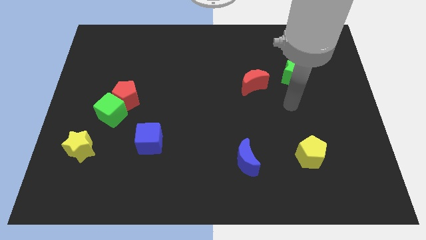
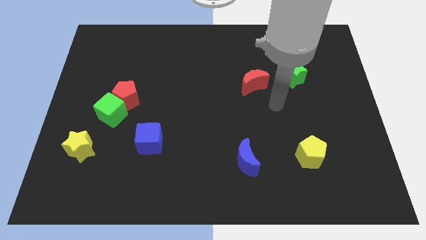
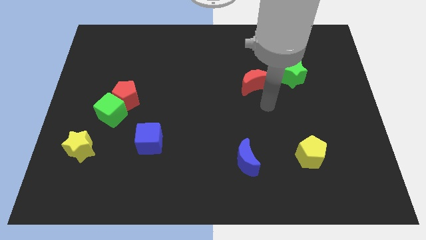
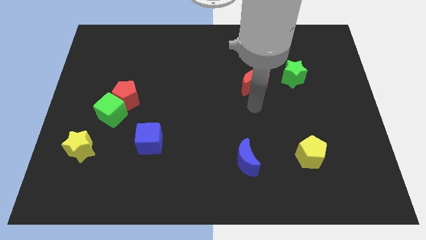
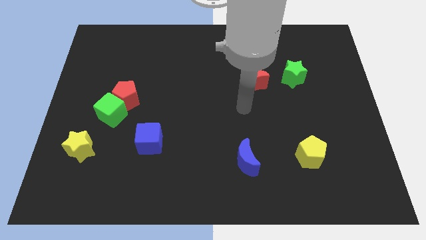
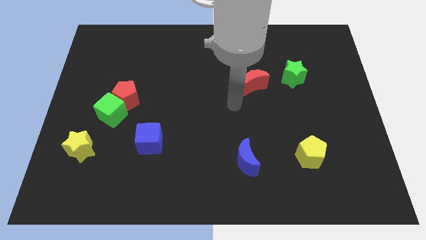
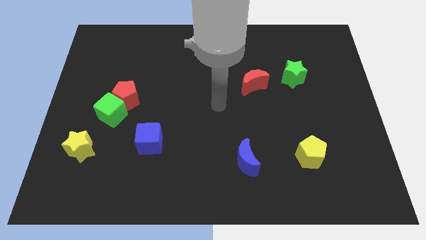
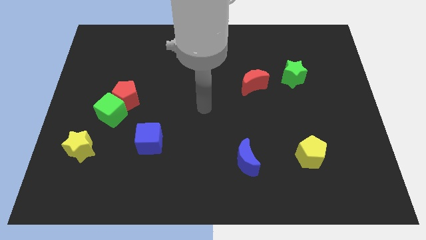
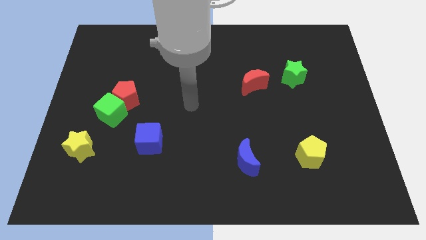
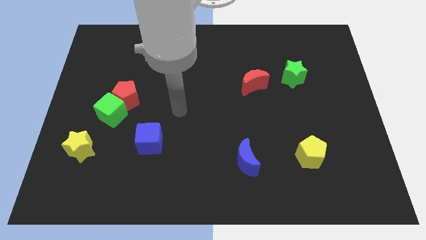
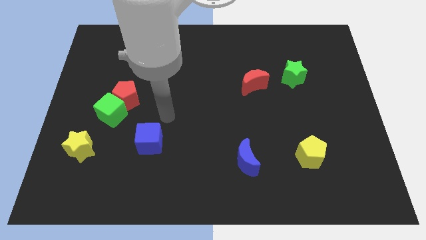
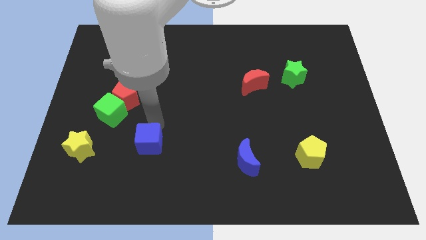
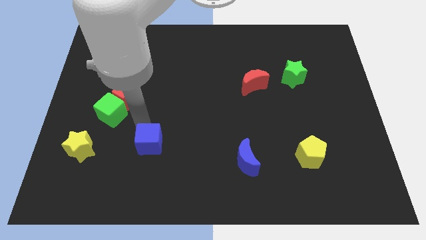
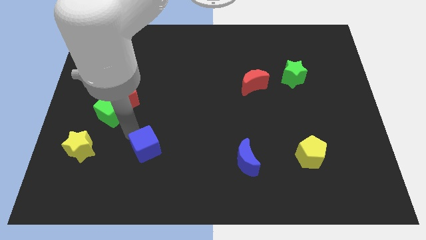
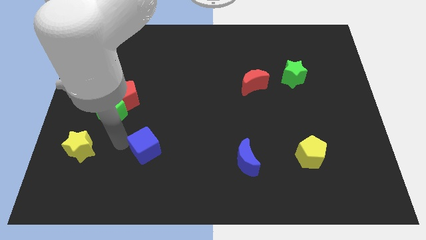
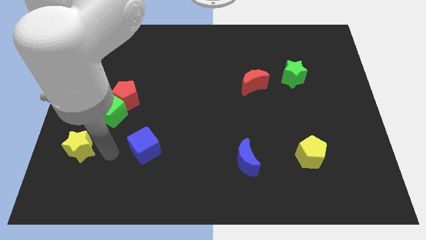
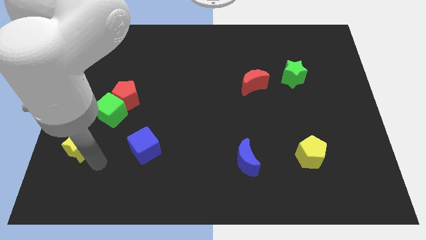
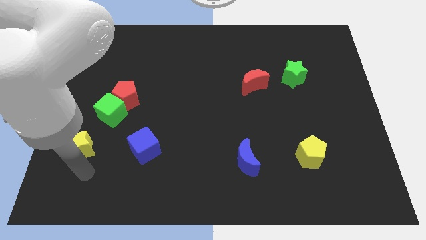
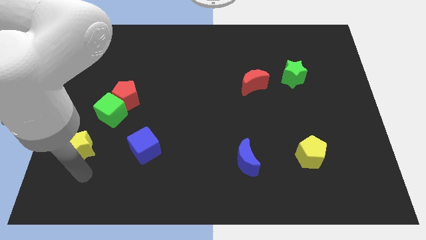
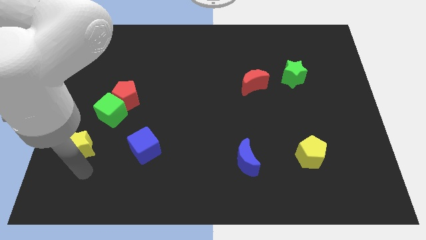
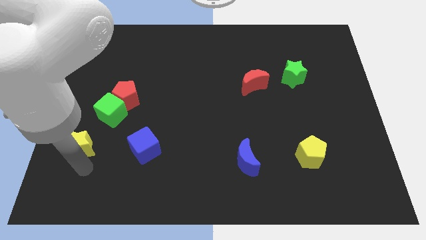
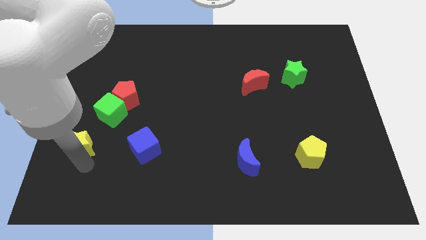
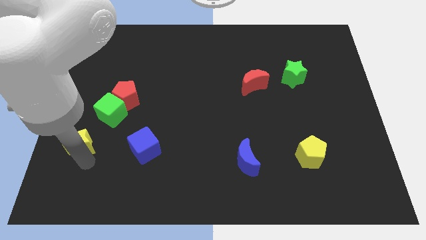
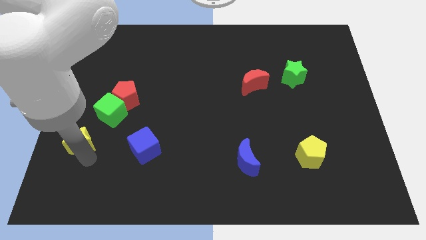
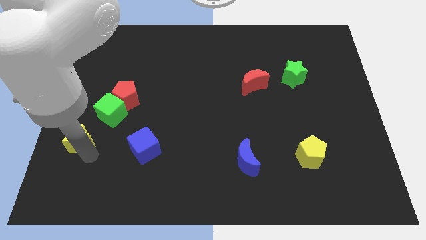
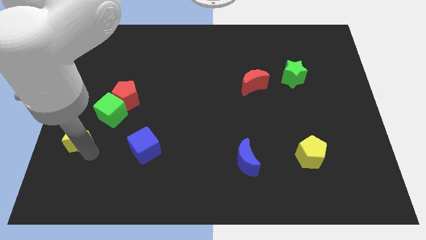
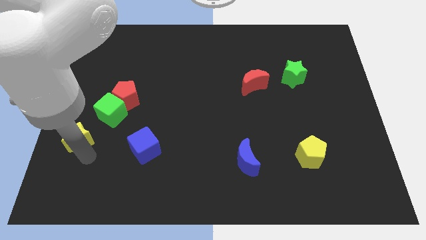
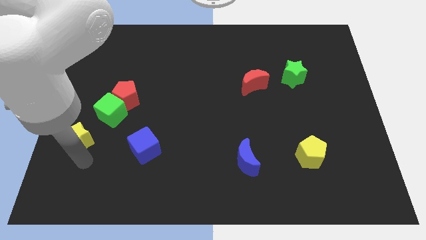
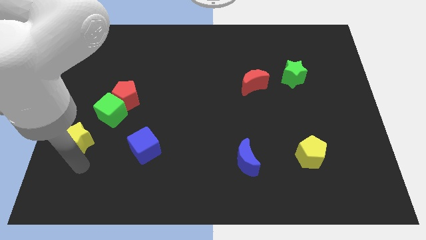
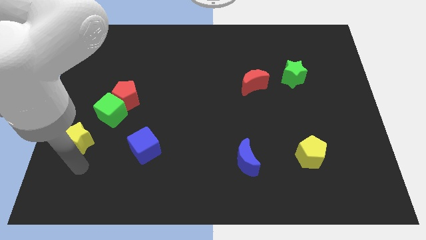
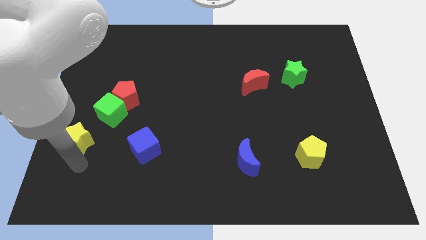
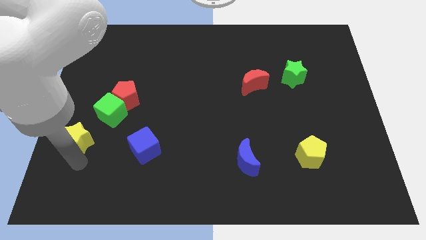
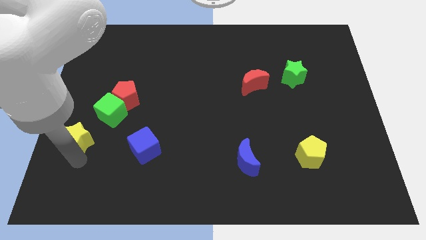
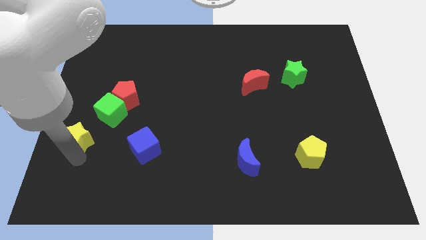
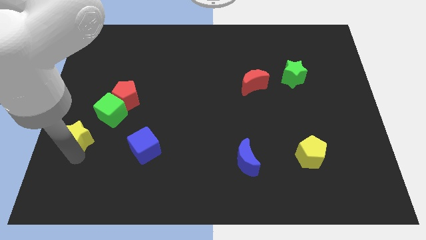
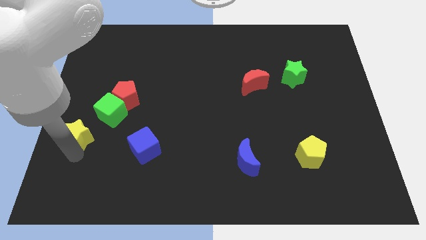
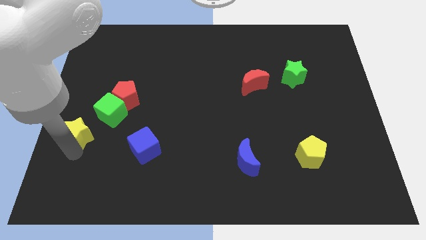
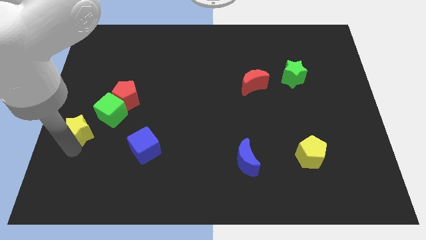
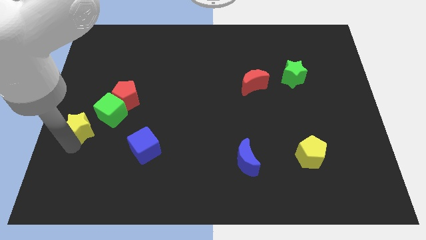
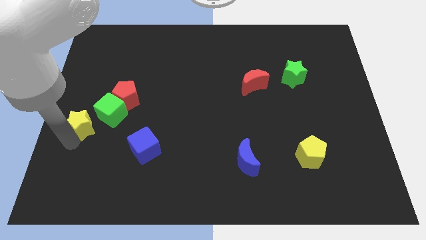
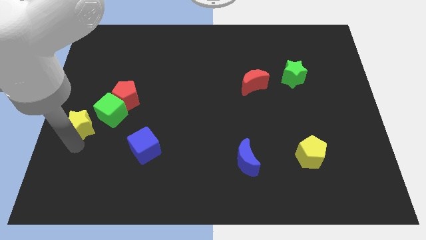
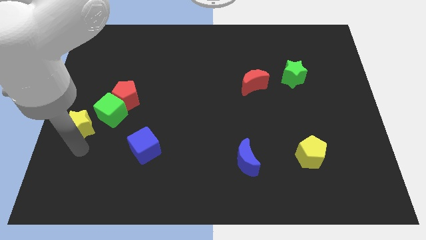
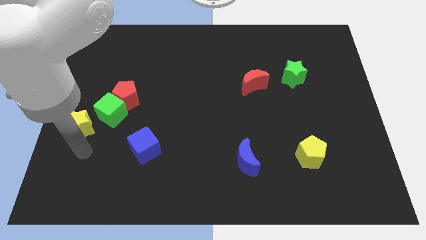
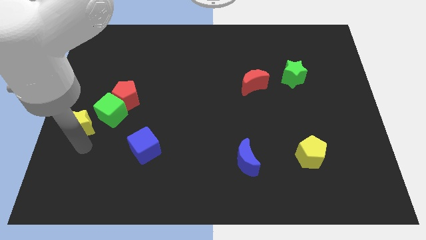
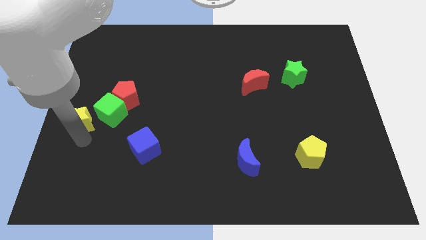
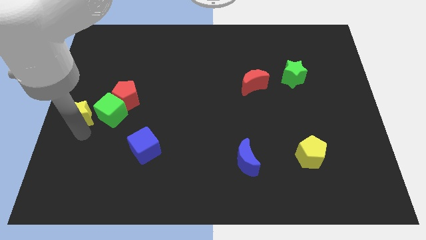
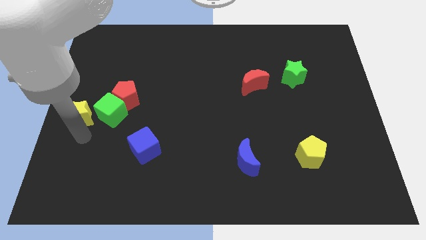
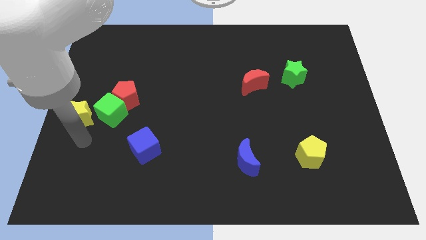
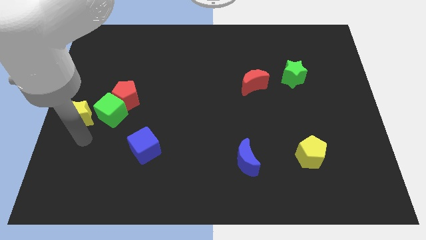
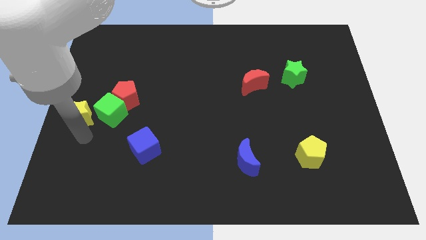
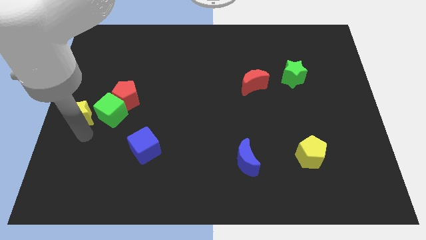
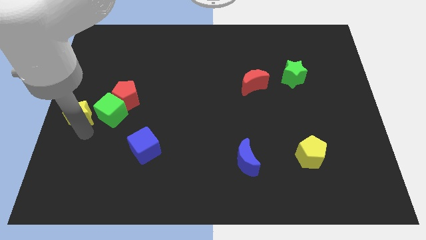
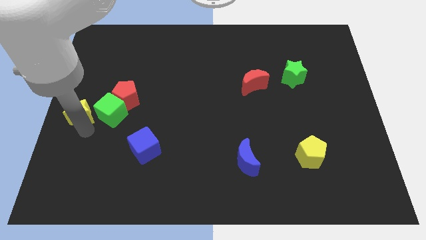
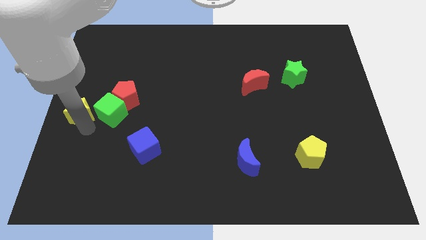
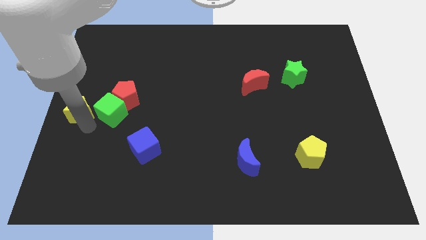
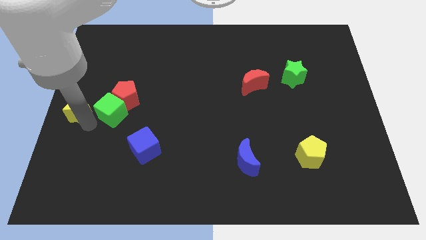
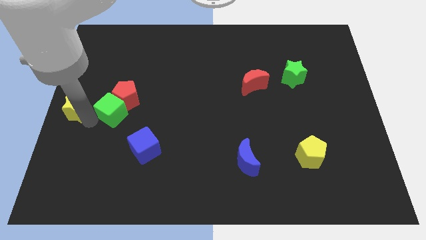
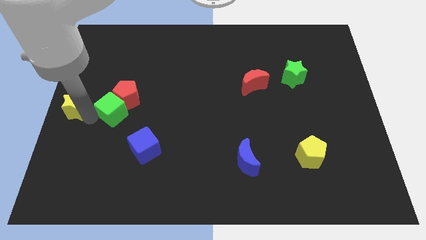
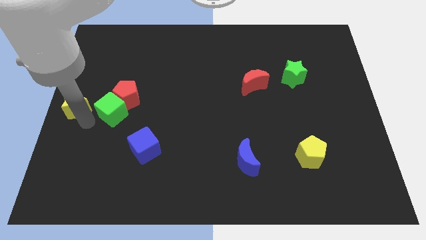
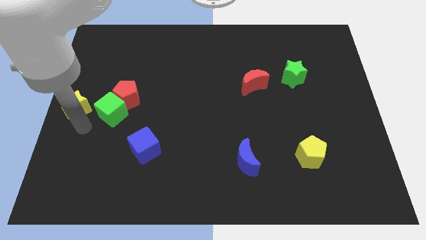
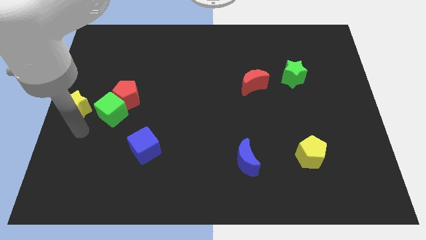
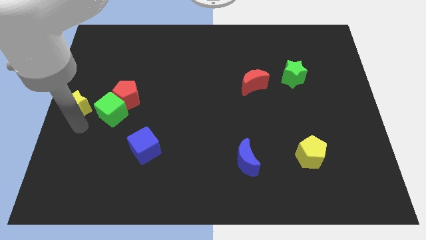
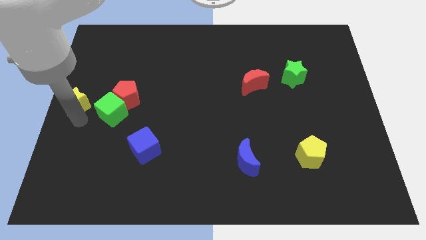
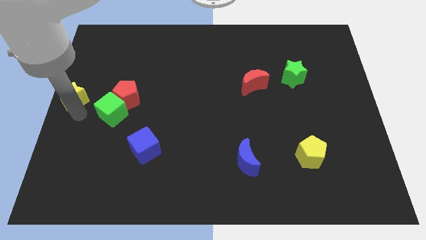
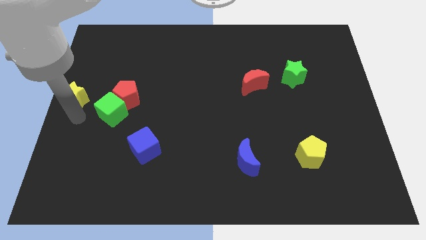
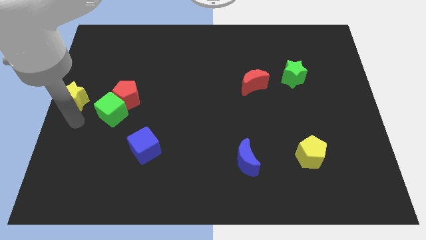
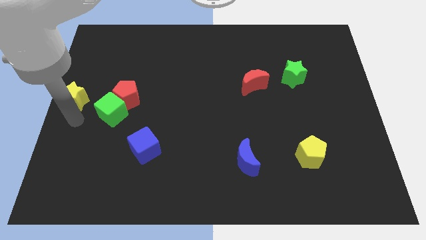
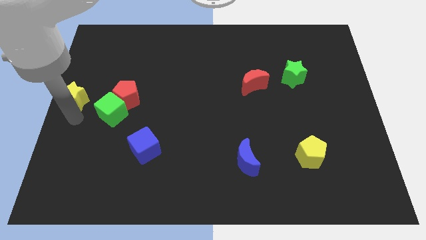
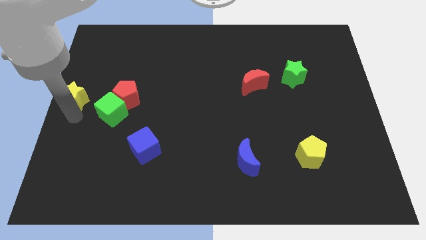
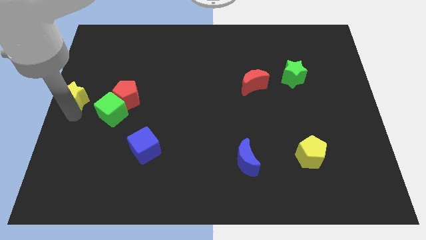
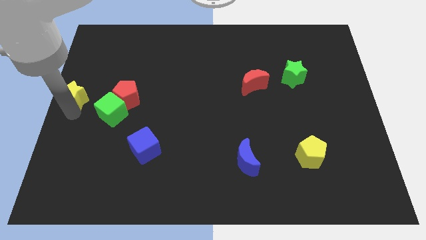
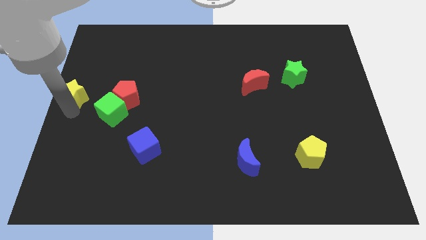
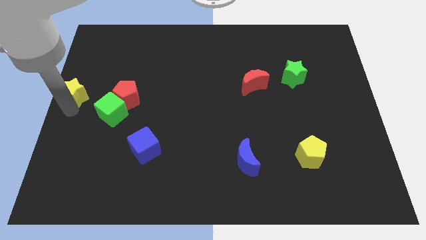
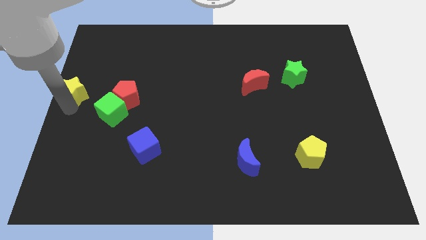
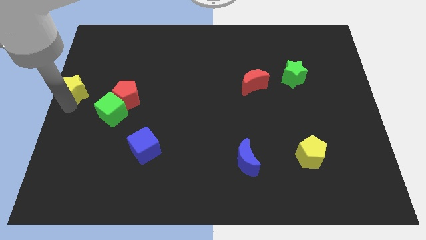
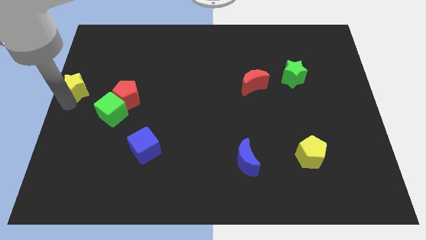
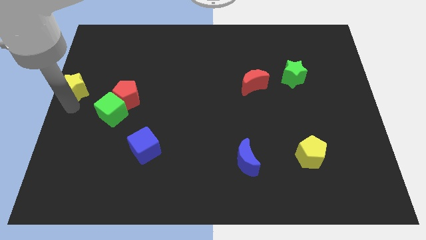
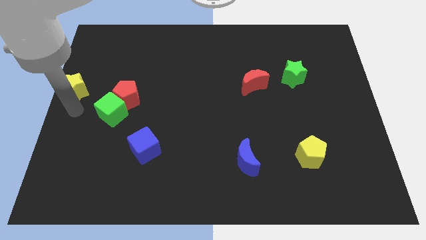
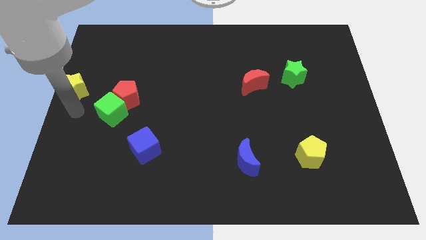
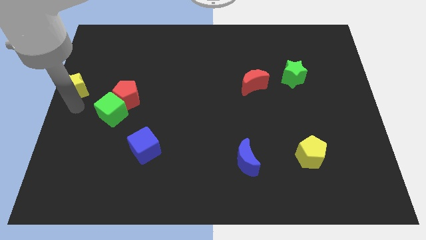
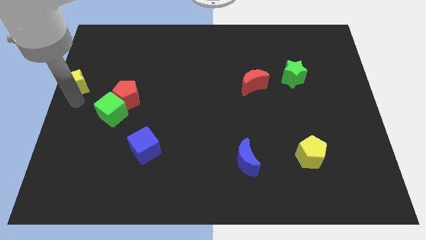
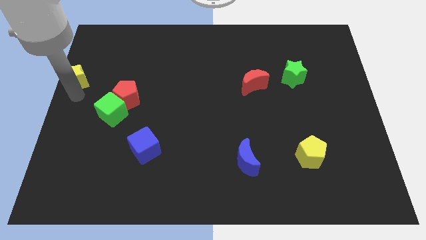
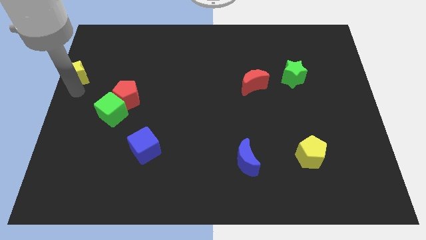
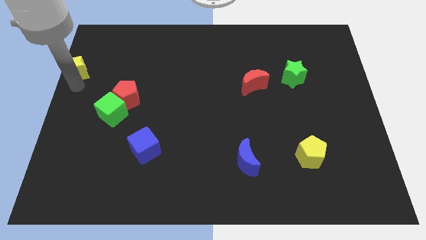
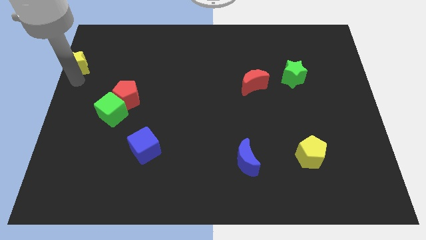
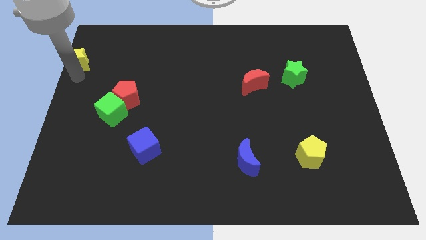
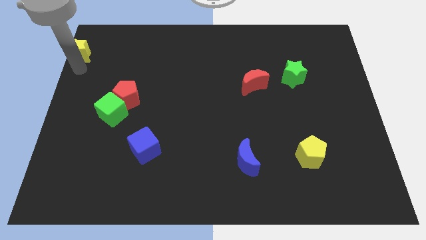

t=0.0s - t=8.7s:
move the yellow star to the top left
